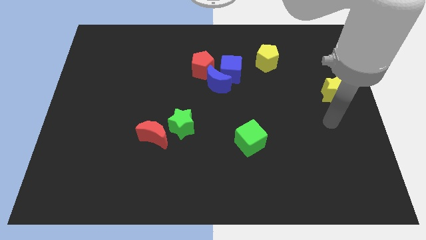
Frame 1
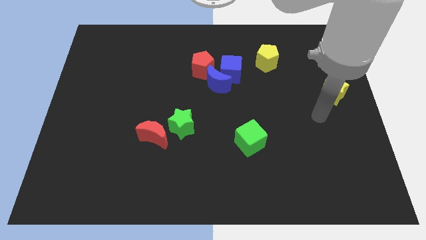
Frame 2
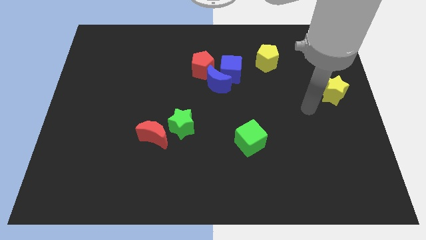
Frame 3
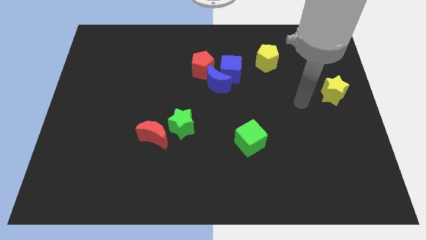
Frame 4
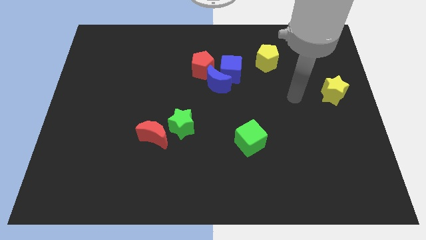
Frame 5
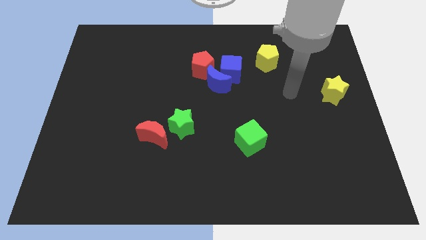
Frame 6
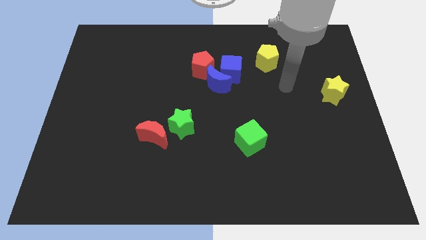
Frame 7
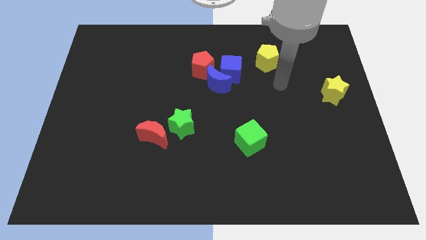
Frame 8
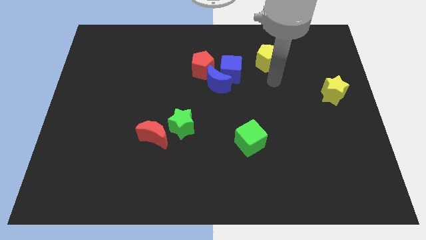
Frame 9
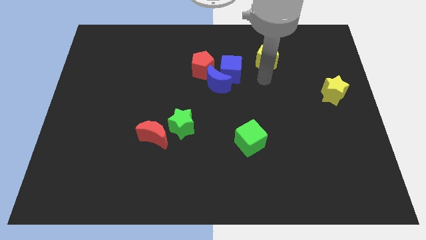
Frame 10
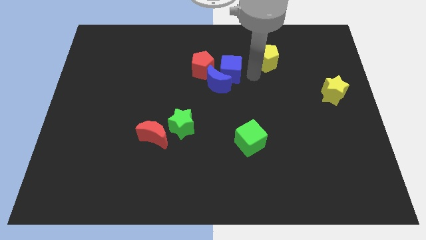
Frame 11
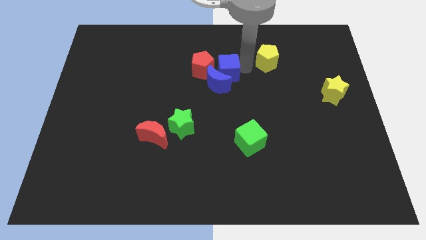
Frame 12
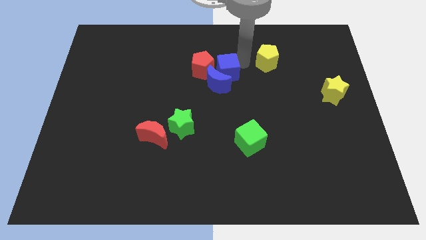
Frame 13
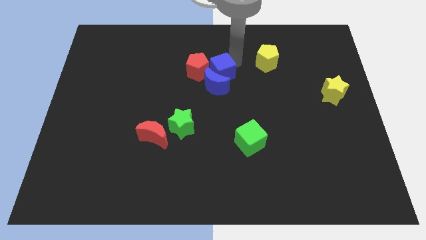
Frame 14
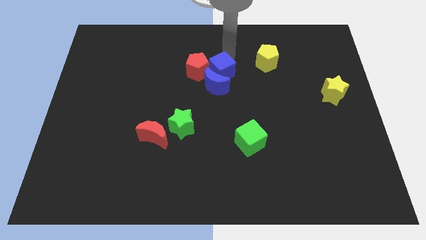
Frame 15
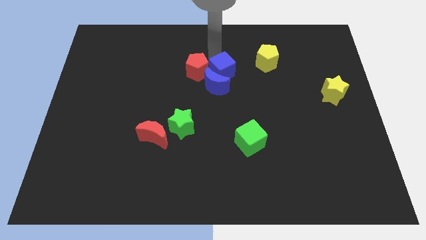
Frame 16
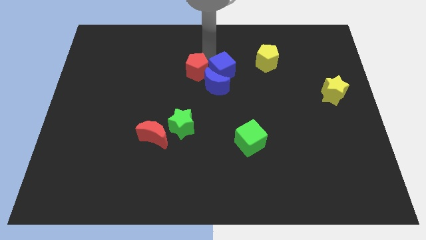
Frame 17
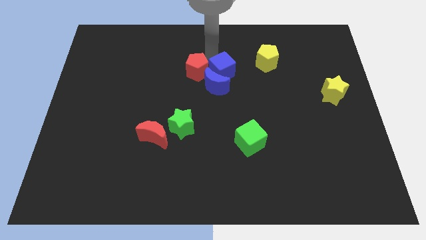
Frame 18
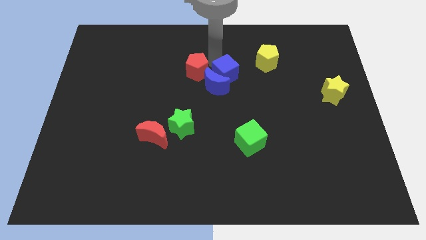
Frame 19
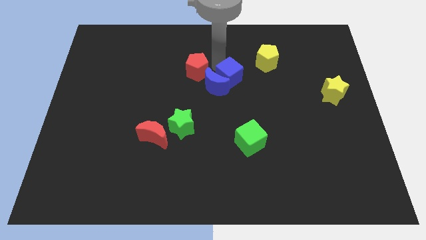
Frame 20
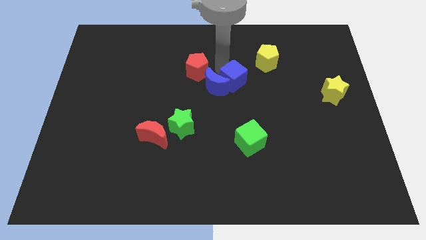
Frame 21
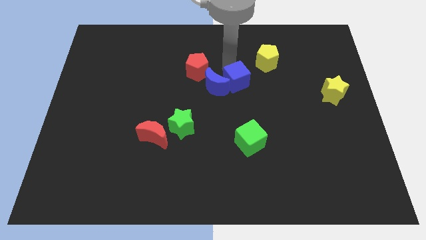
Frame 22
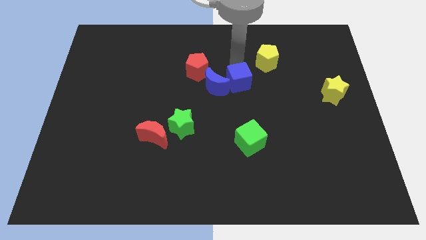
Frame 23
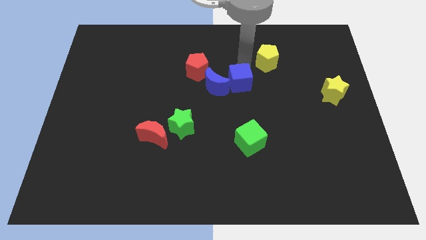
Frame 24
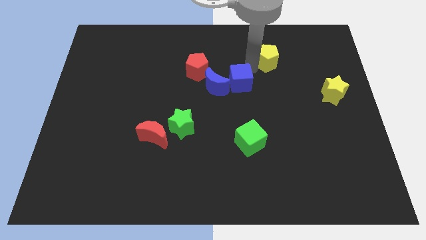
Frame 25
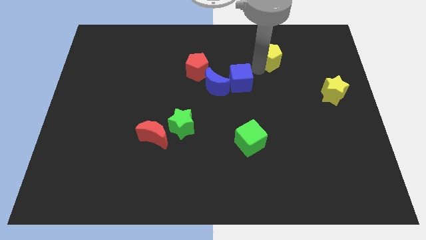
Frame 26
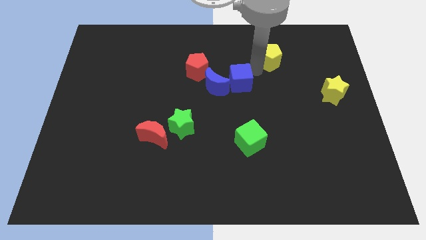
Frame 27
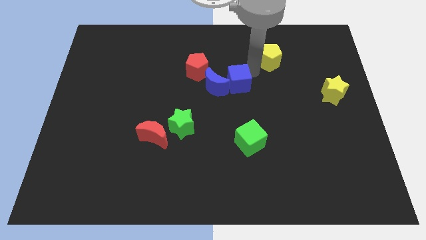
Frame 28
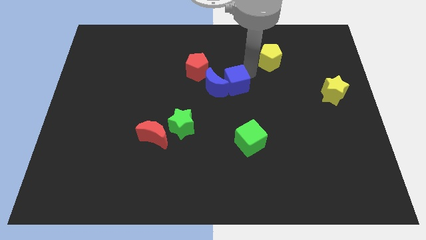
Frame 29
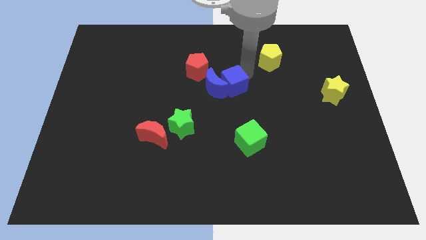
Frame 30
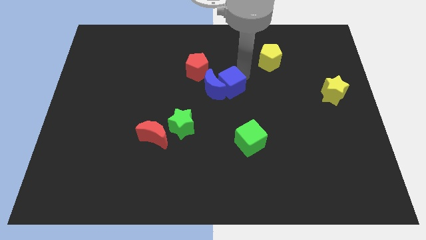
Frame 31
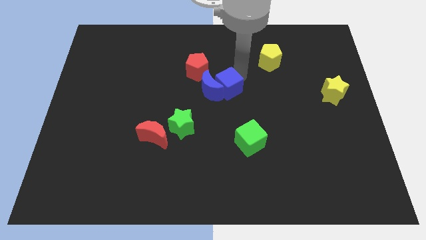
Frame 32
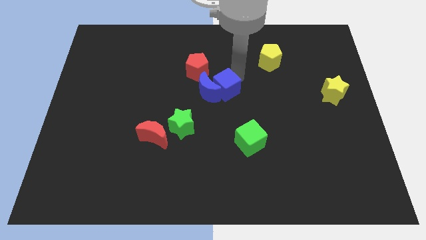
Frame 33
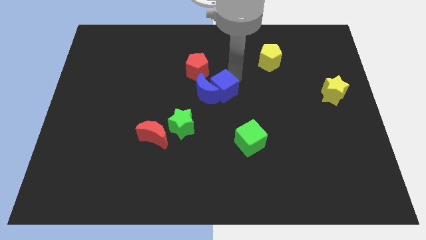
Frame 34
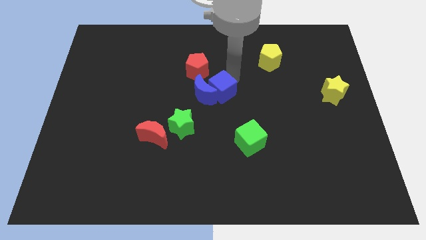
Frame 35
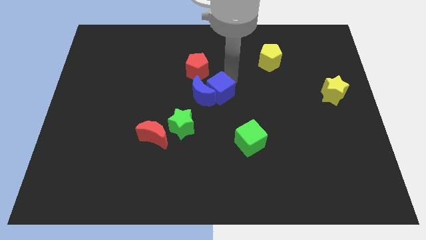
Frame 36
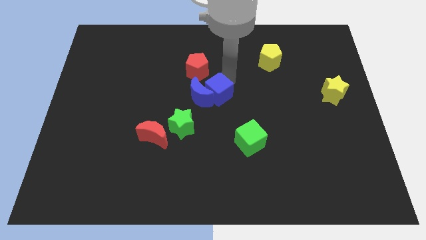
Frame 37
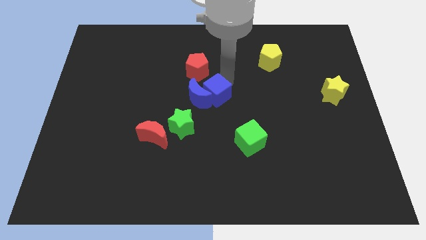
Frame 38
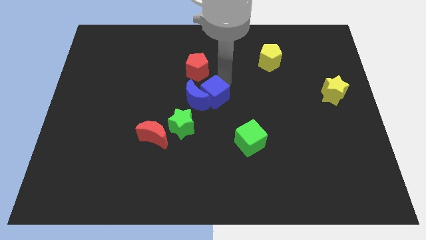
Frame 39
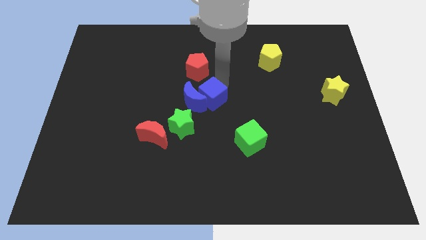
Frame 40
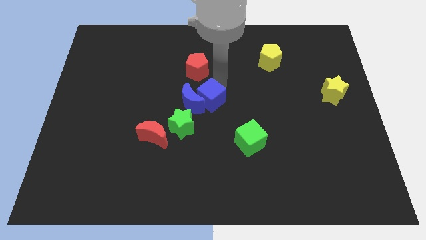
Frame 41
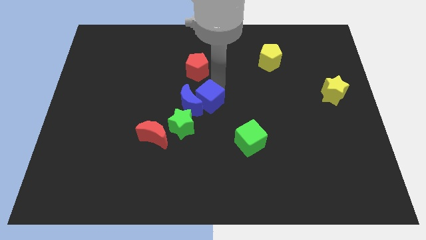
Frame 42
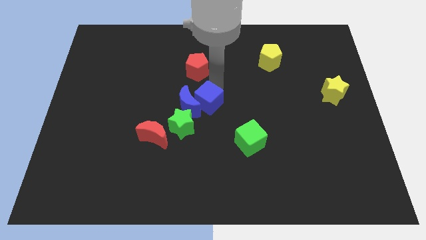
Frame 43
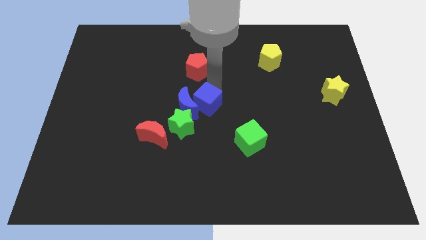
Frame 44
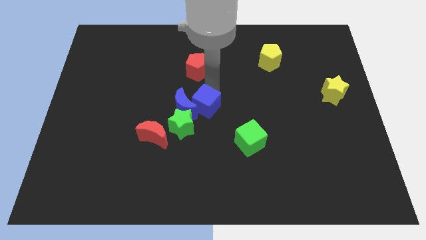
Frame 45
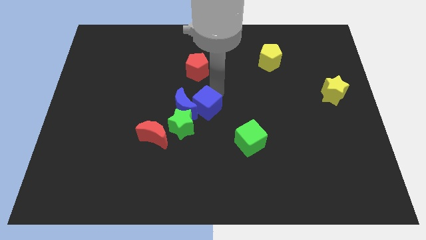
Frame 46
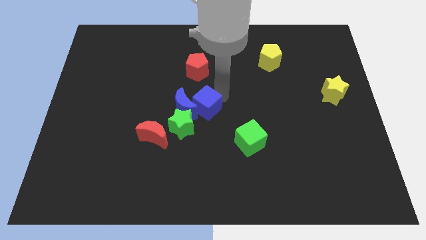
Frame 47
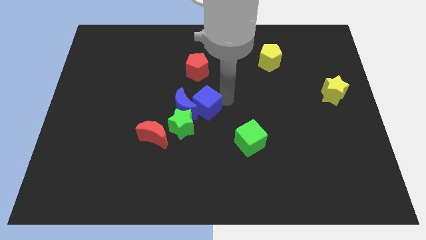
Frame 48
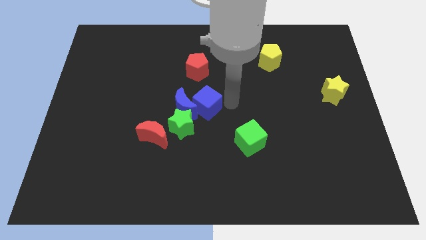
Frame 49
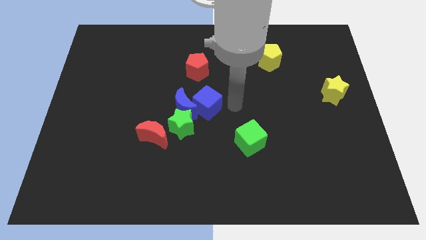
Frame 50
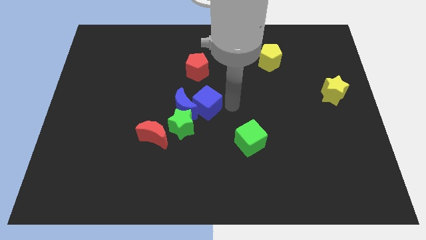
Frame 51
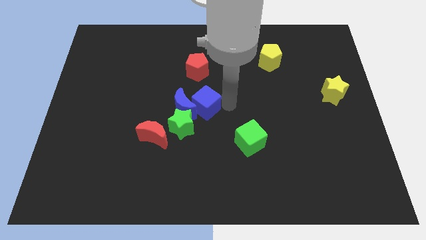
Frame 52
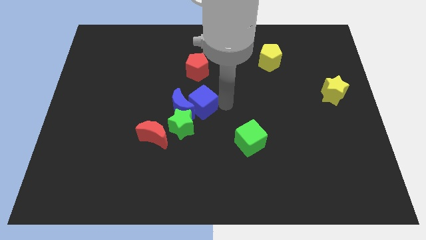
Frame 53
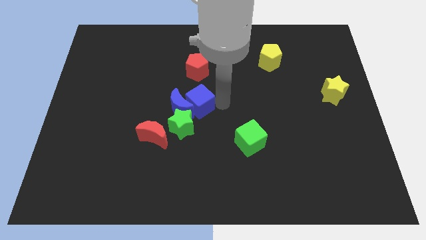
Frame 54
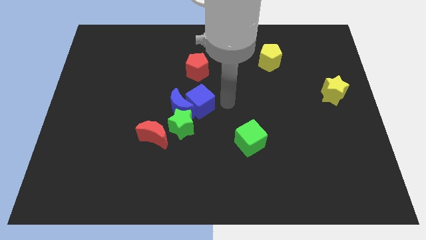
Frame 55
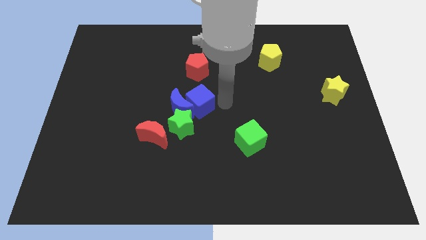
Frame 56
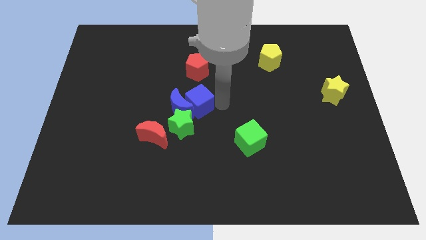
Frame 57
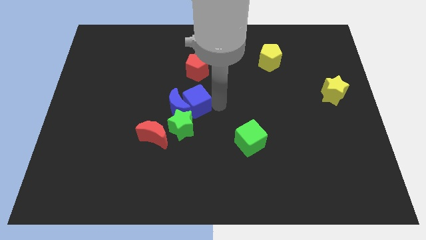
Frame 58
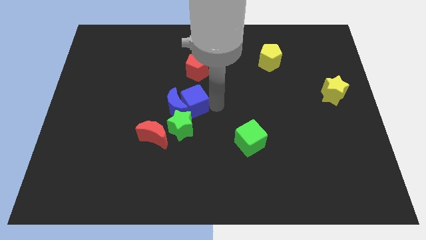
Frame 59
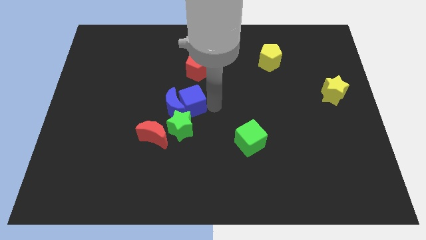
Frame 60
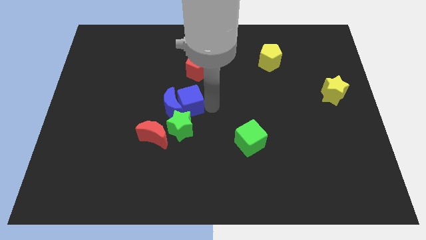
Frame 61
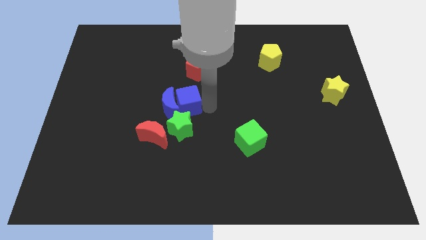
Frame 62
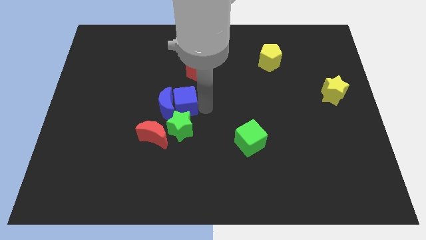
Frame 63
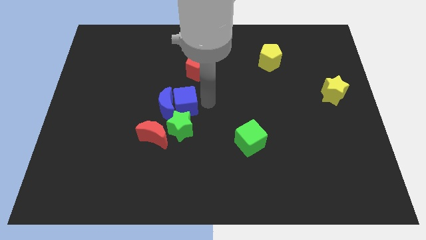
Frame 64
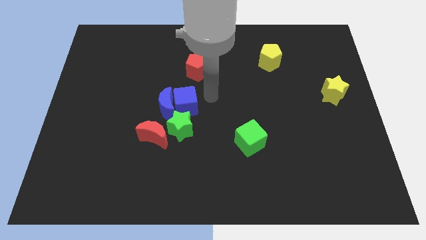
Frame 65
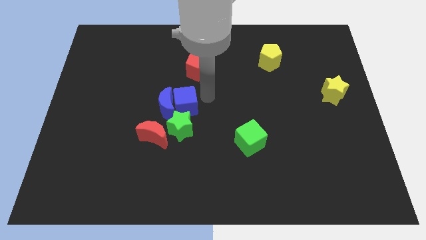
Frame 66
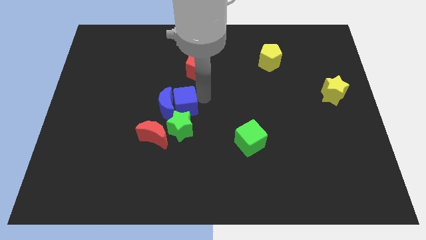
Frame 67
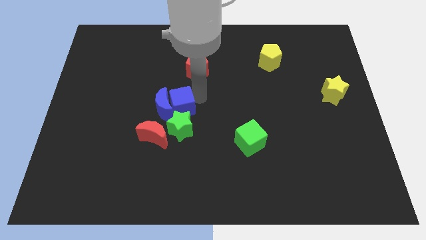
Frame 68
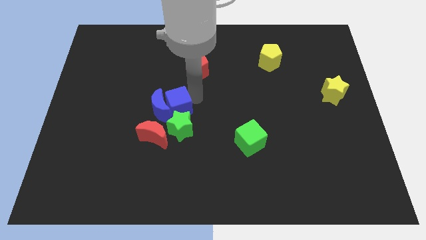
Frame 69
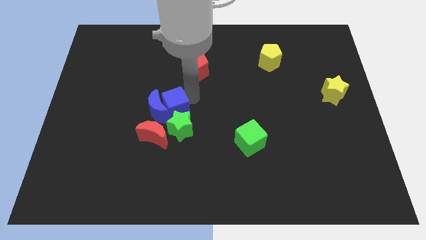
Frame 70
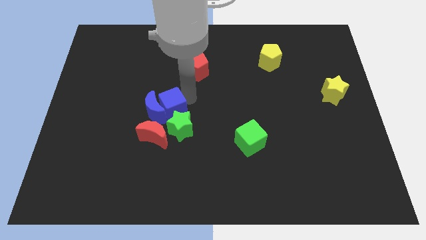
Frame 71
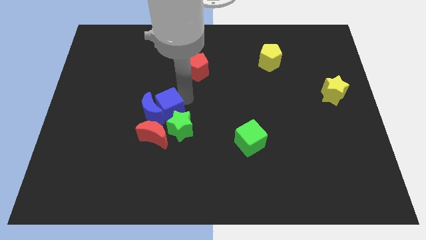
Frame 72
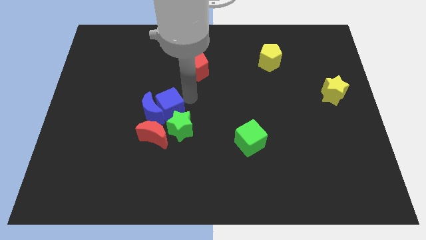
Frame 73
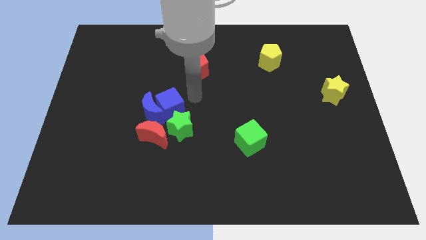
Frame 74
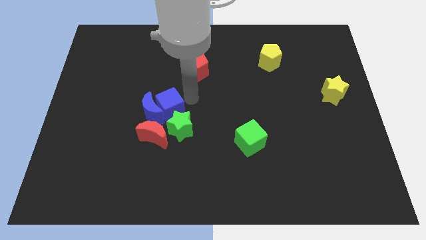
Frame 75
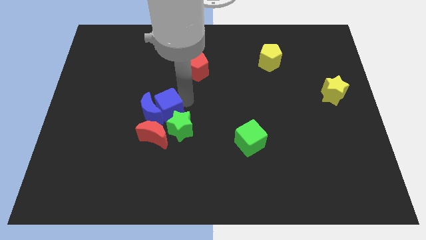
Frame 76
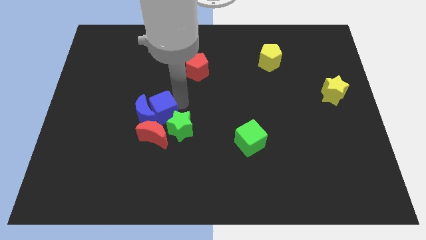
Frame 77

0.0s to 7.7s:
move the blue cube downwards and left diagonally

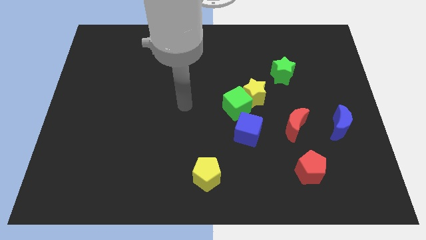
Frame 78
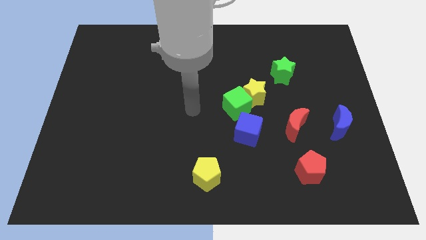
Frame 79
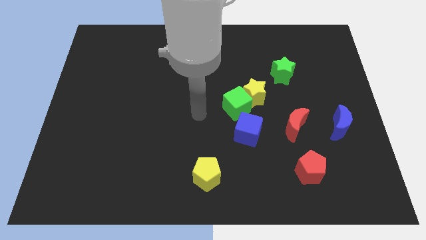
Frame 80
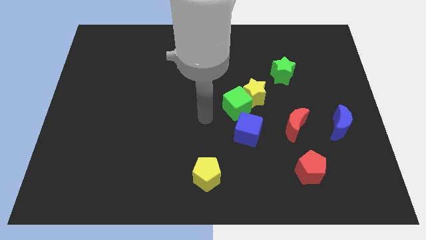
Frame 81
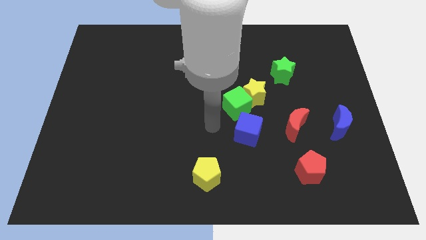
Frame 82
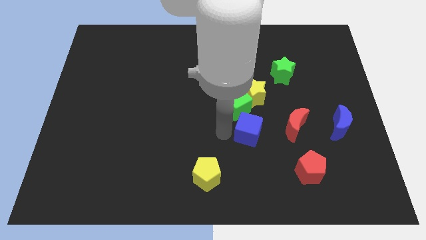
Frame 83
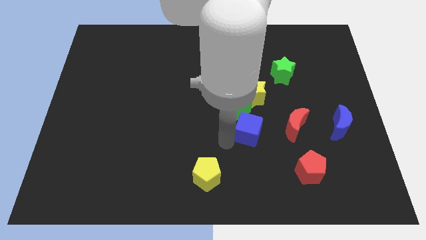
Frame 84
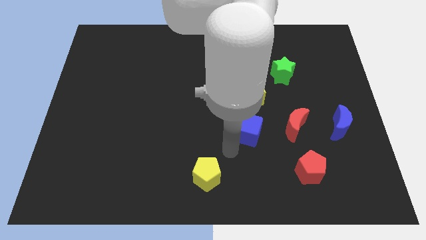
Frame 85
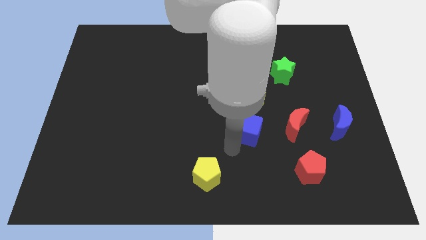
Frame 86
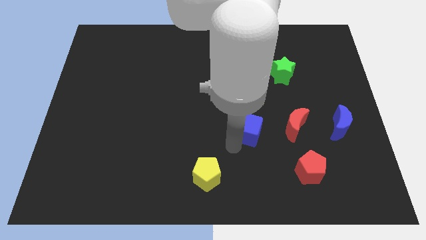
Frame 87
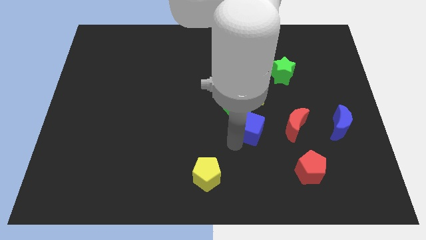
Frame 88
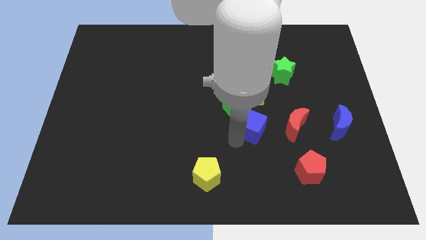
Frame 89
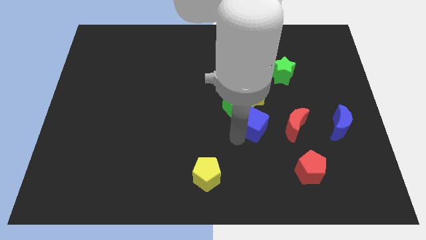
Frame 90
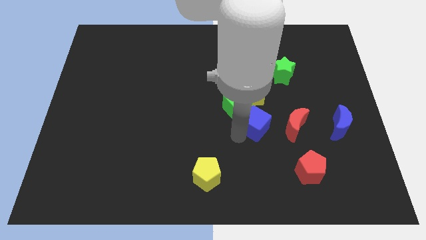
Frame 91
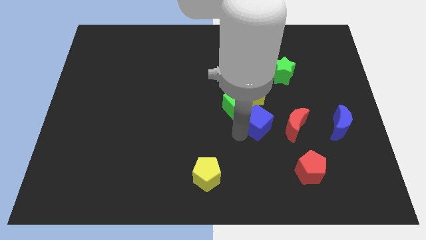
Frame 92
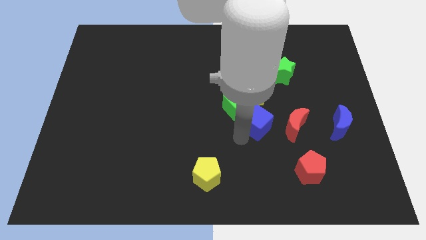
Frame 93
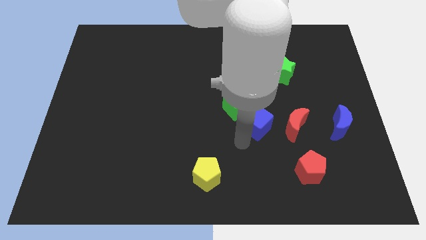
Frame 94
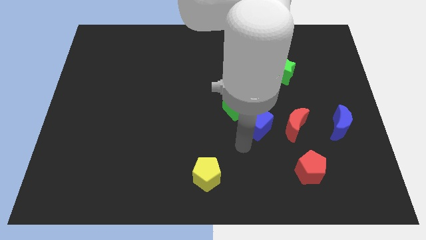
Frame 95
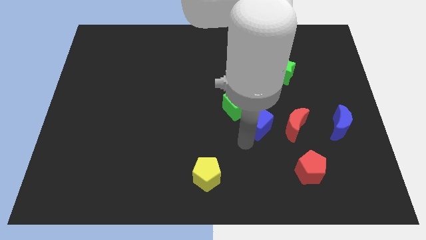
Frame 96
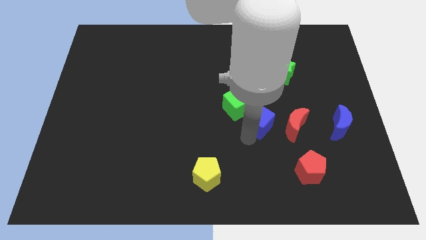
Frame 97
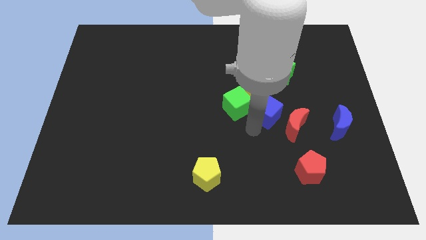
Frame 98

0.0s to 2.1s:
move the blue cube upwards and to the right a little bit
